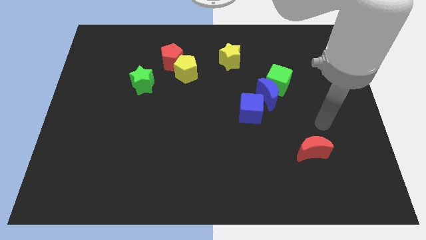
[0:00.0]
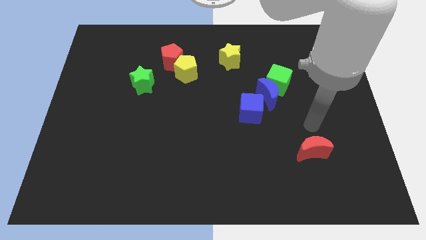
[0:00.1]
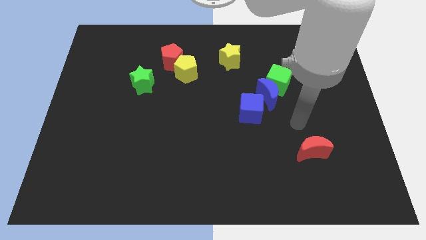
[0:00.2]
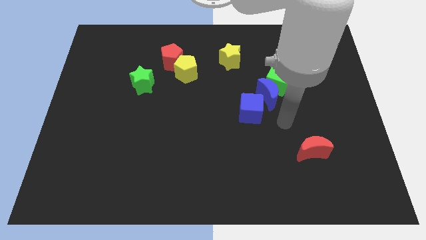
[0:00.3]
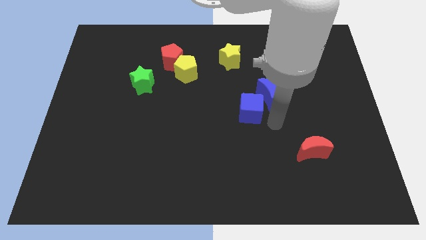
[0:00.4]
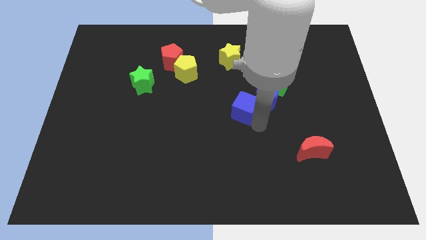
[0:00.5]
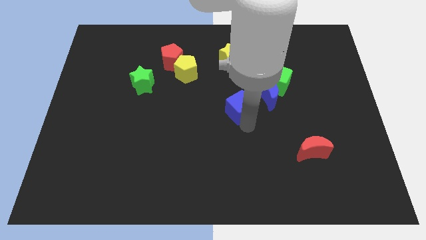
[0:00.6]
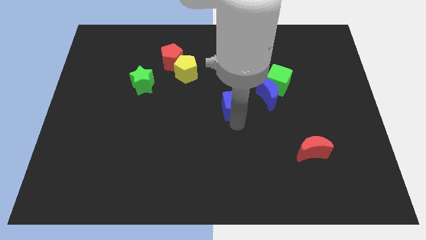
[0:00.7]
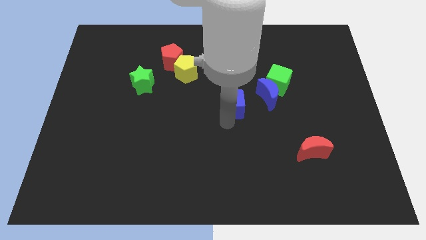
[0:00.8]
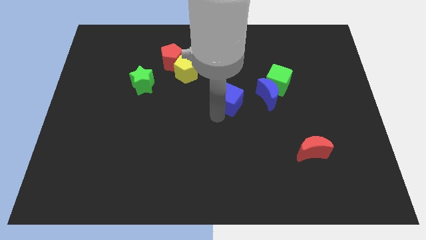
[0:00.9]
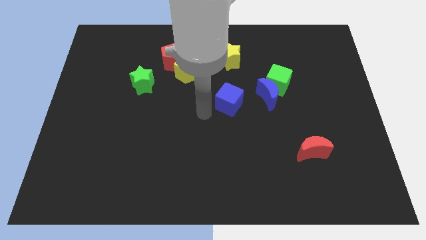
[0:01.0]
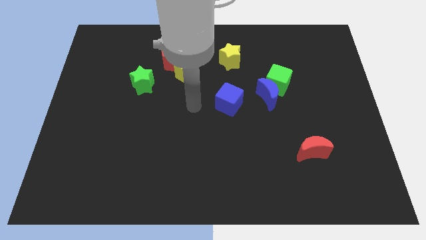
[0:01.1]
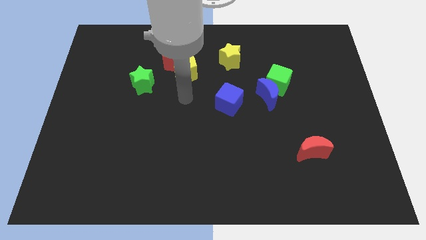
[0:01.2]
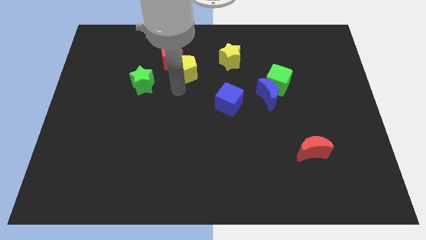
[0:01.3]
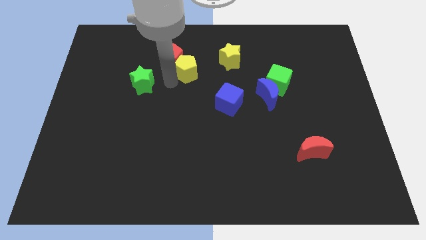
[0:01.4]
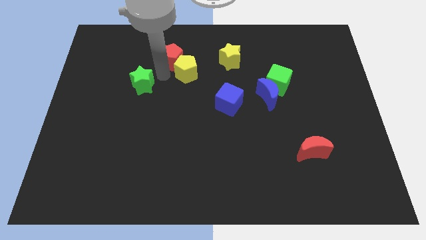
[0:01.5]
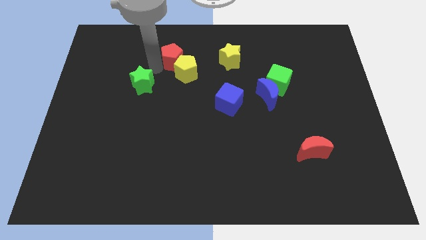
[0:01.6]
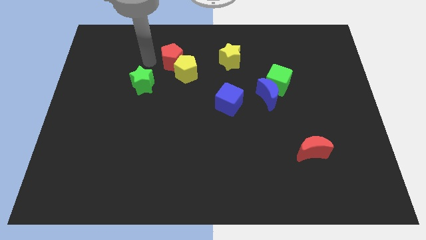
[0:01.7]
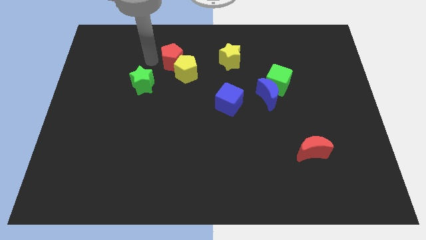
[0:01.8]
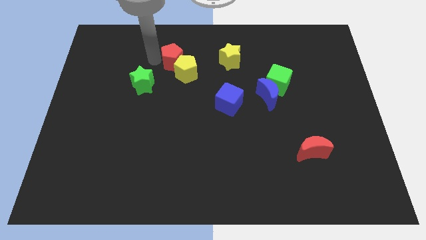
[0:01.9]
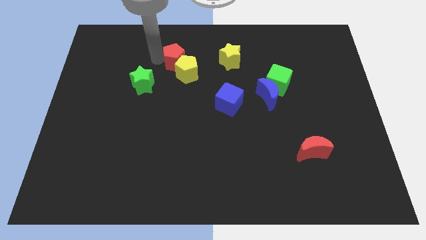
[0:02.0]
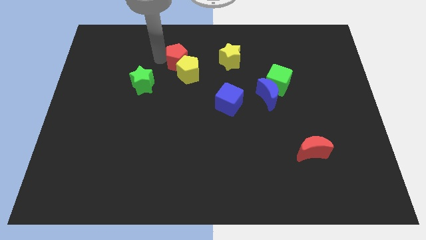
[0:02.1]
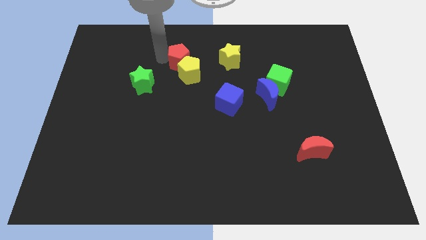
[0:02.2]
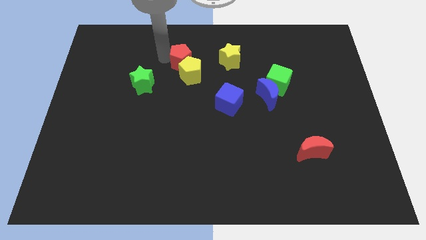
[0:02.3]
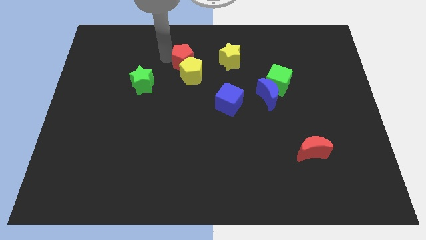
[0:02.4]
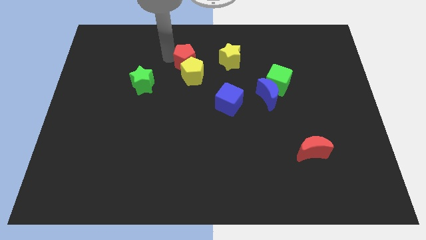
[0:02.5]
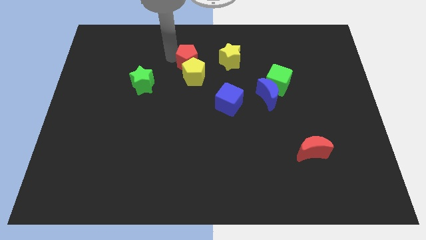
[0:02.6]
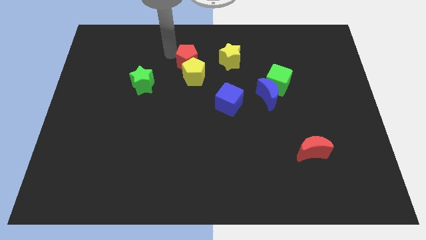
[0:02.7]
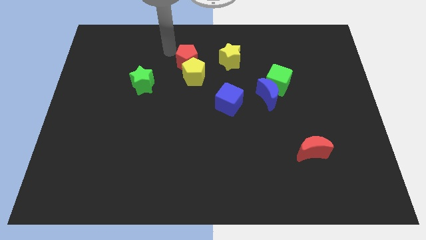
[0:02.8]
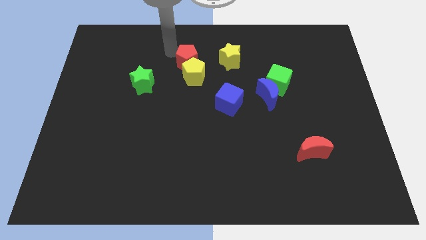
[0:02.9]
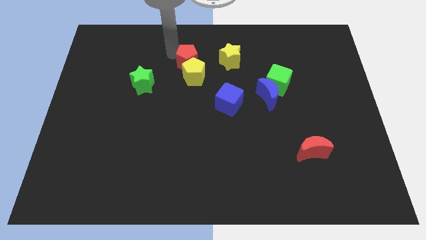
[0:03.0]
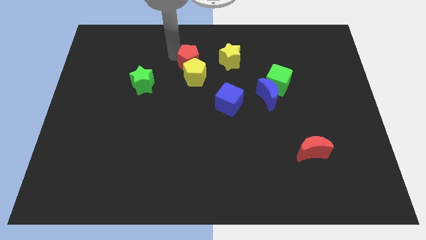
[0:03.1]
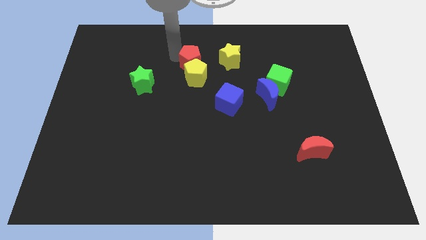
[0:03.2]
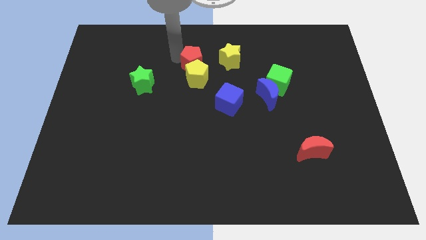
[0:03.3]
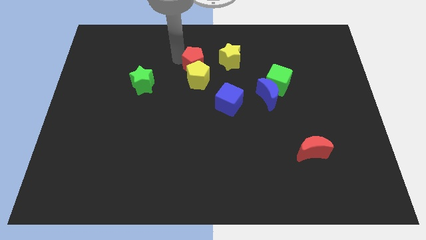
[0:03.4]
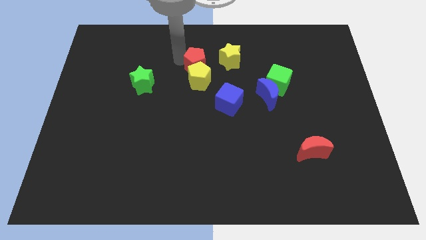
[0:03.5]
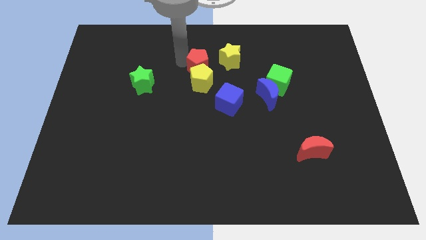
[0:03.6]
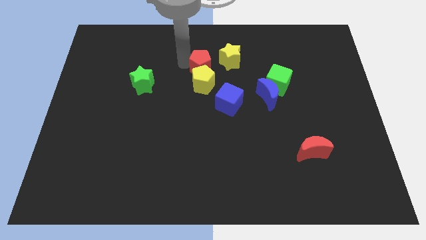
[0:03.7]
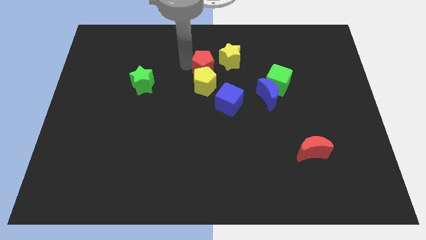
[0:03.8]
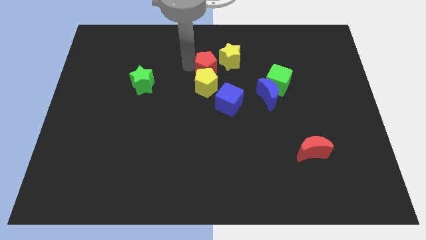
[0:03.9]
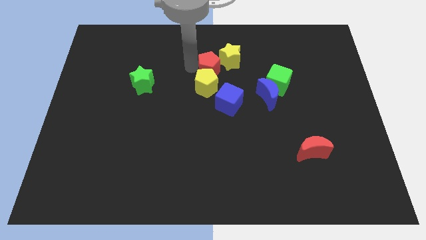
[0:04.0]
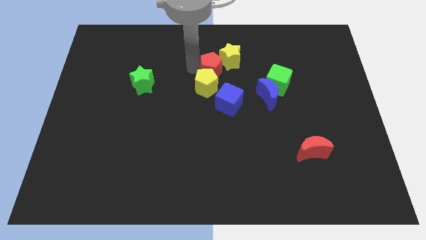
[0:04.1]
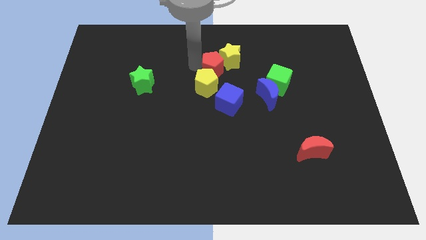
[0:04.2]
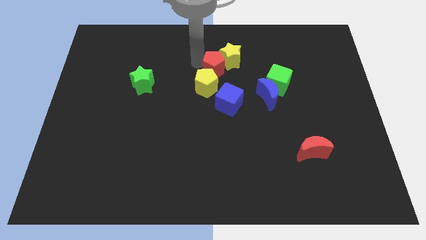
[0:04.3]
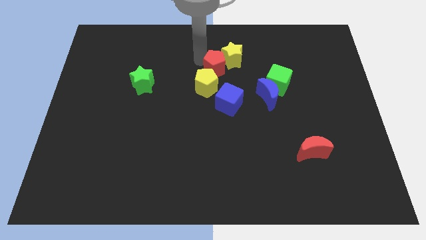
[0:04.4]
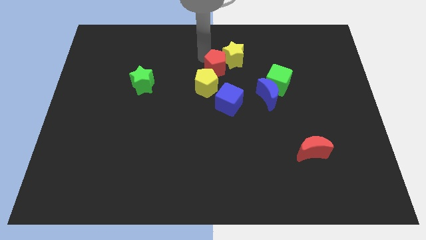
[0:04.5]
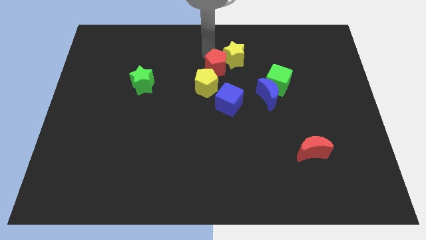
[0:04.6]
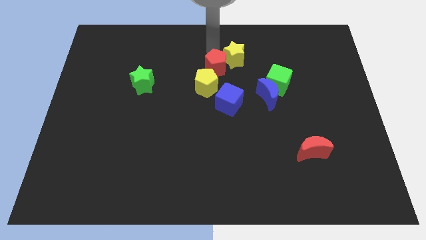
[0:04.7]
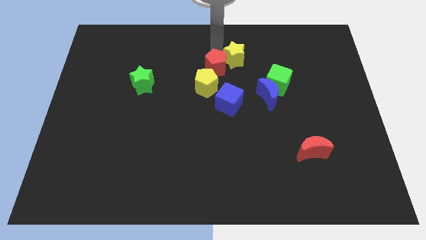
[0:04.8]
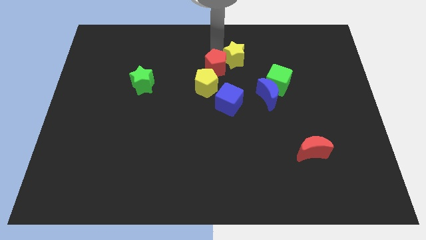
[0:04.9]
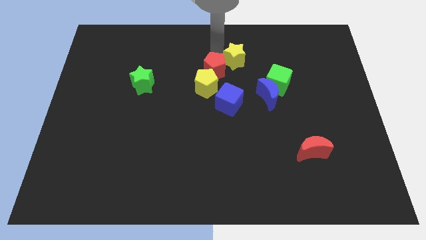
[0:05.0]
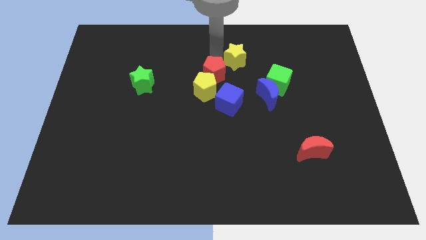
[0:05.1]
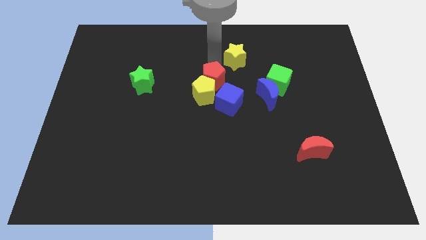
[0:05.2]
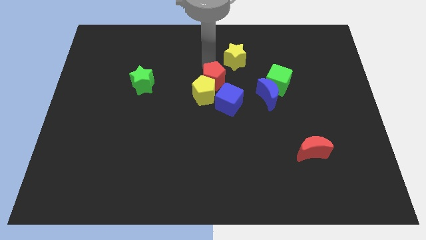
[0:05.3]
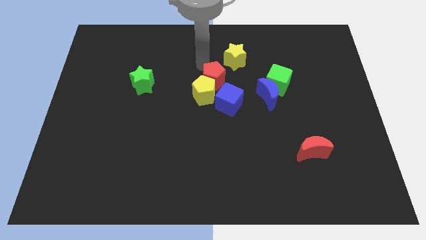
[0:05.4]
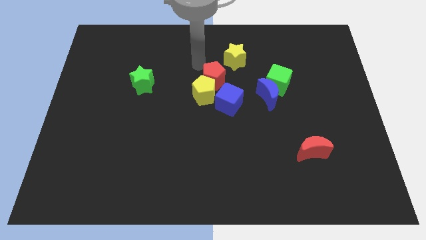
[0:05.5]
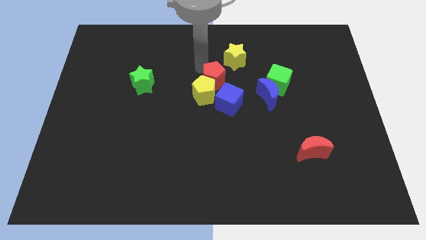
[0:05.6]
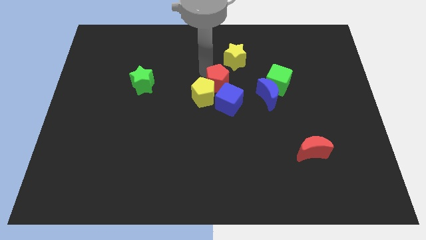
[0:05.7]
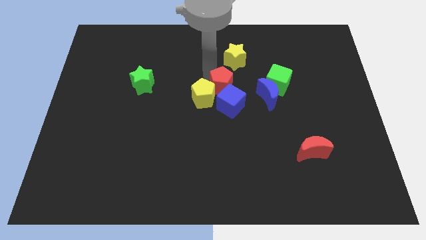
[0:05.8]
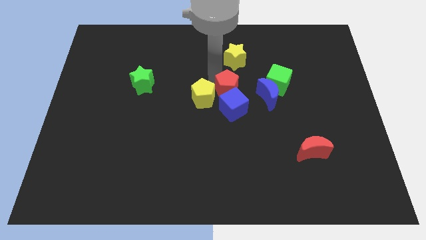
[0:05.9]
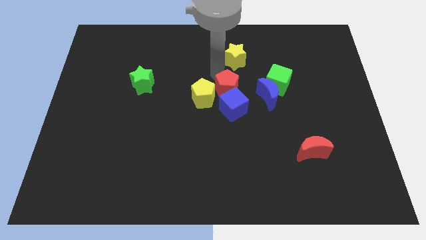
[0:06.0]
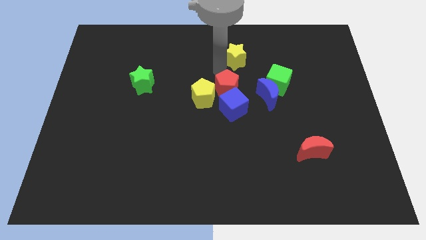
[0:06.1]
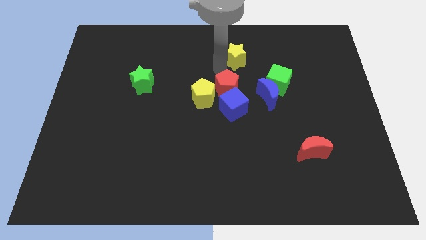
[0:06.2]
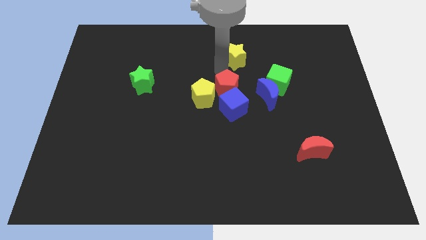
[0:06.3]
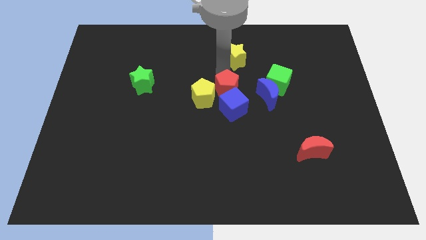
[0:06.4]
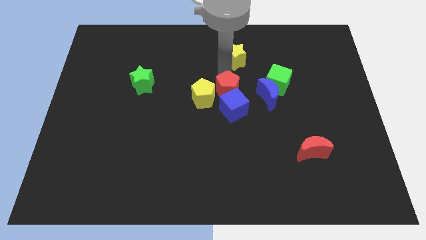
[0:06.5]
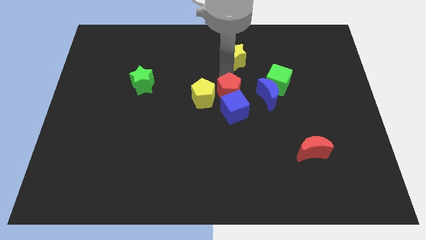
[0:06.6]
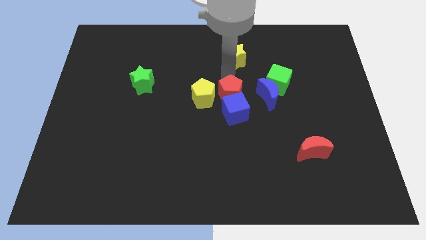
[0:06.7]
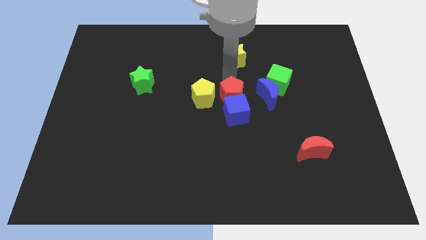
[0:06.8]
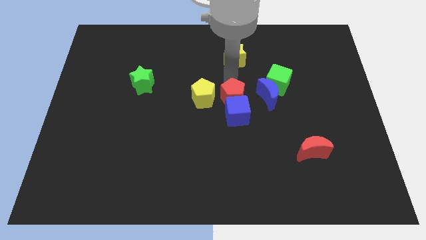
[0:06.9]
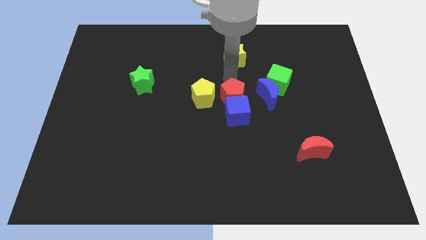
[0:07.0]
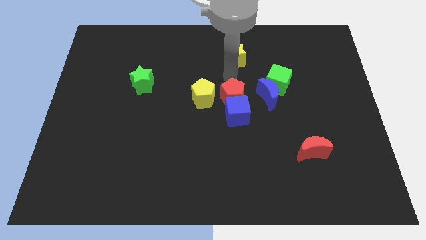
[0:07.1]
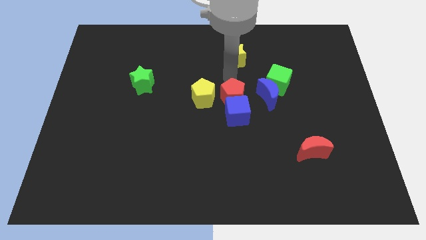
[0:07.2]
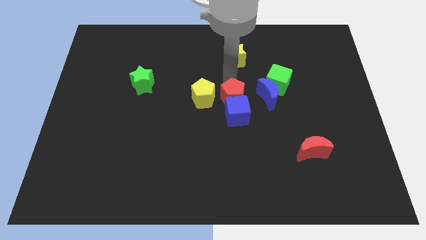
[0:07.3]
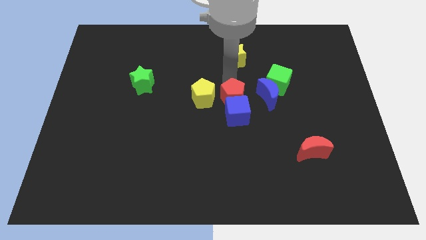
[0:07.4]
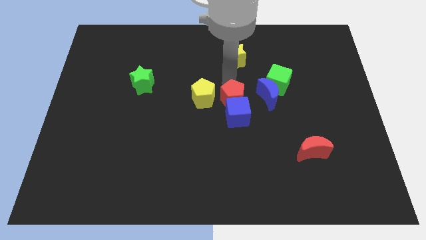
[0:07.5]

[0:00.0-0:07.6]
push the red pentagon downwards and then right
